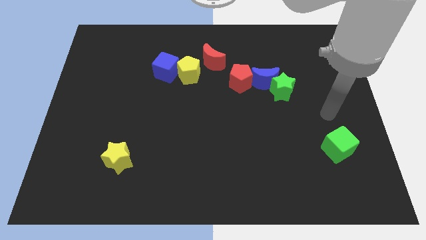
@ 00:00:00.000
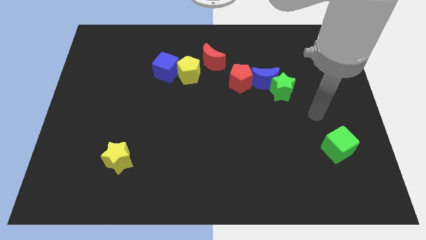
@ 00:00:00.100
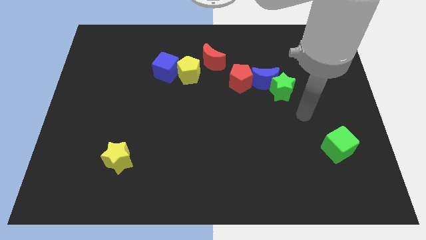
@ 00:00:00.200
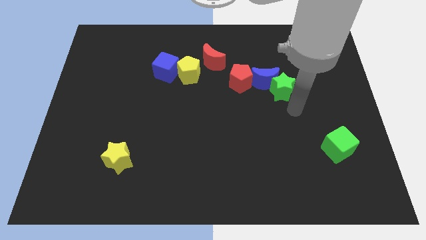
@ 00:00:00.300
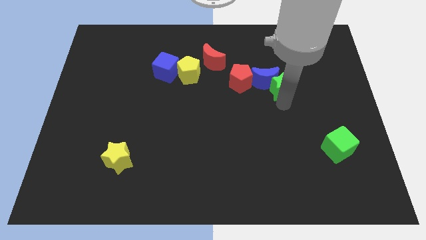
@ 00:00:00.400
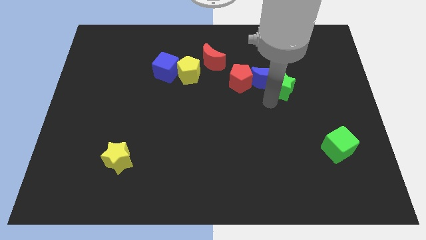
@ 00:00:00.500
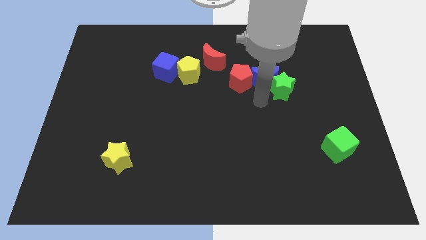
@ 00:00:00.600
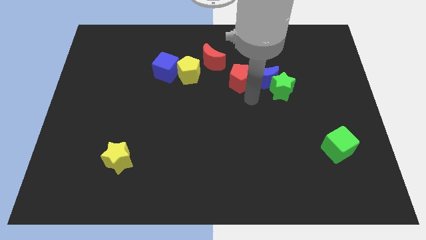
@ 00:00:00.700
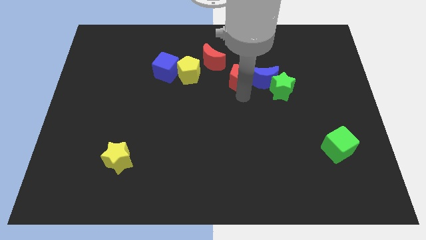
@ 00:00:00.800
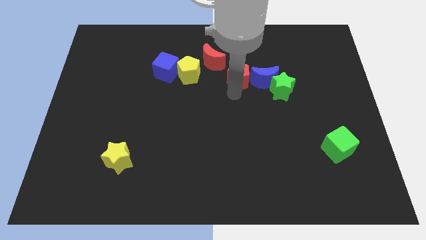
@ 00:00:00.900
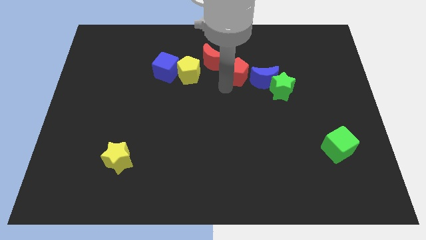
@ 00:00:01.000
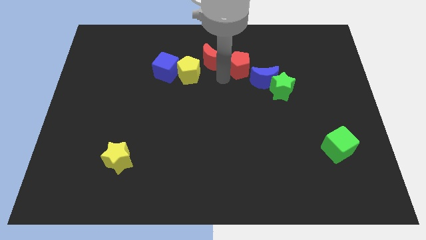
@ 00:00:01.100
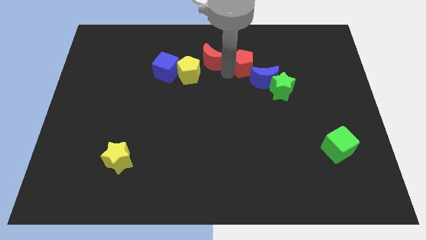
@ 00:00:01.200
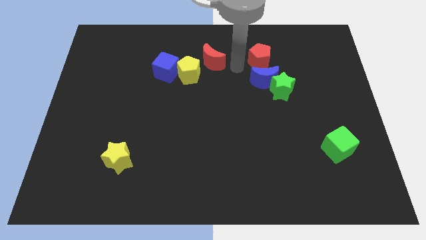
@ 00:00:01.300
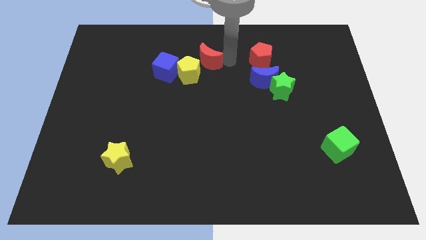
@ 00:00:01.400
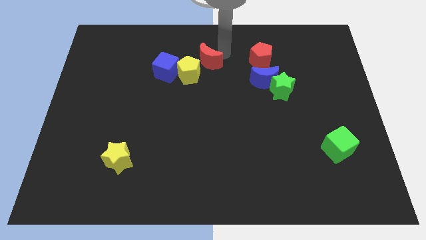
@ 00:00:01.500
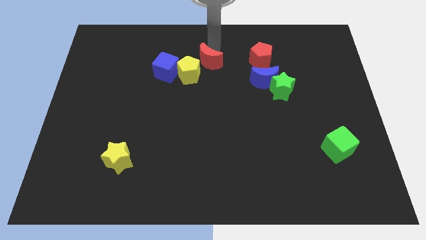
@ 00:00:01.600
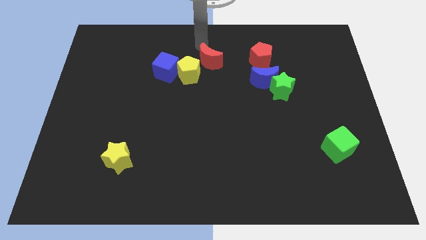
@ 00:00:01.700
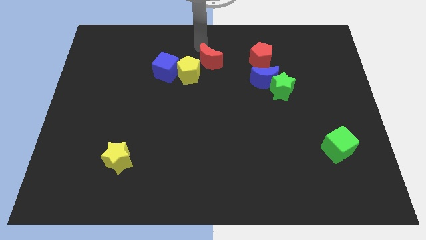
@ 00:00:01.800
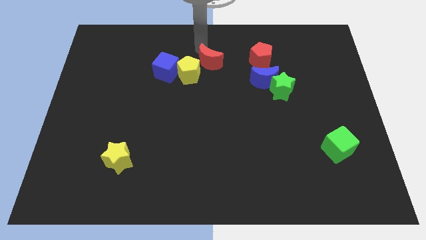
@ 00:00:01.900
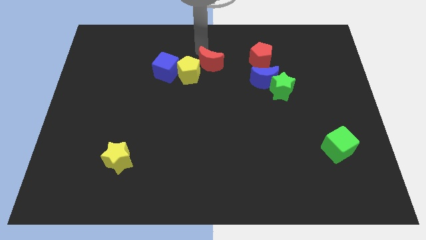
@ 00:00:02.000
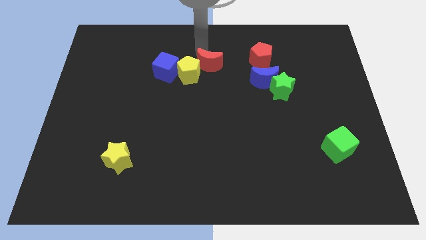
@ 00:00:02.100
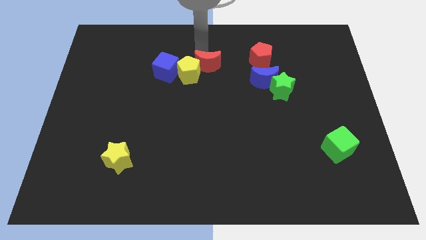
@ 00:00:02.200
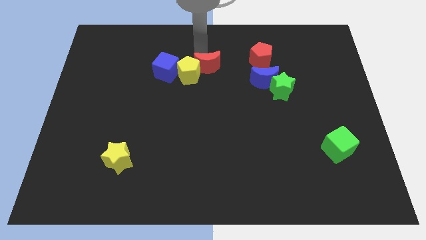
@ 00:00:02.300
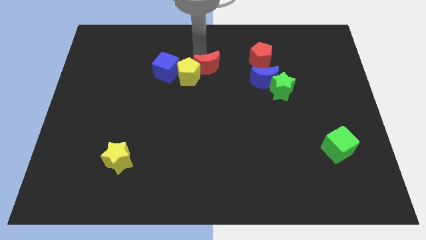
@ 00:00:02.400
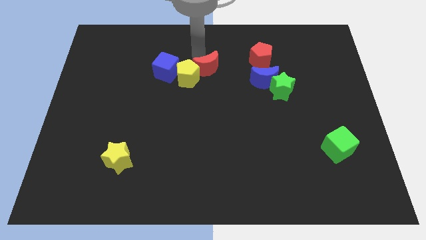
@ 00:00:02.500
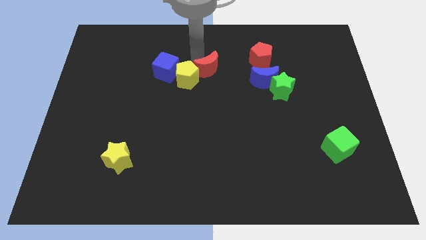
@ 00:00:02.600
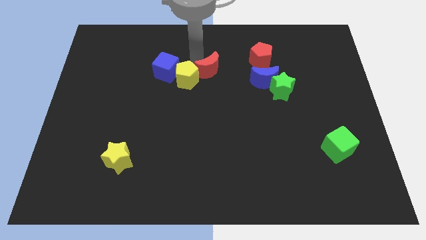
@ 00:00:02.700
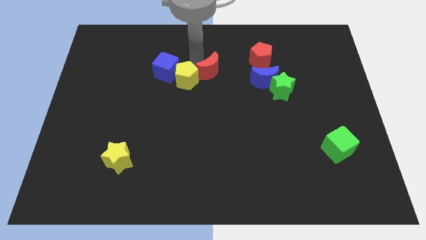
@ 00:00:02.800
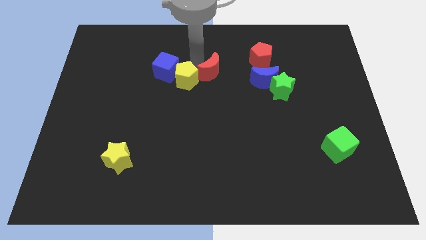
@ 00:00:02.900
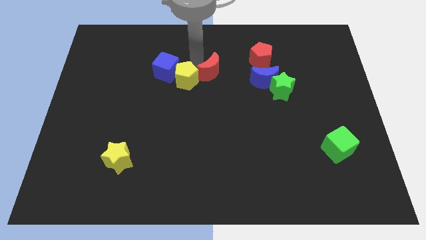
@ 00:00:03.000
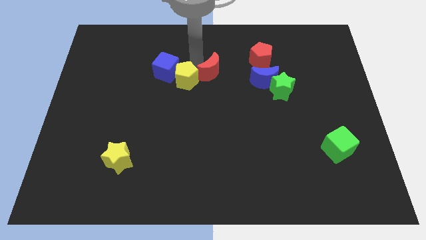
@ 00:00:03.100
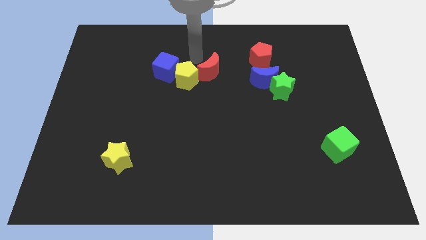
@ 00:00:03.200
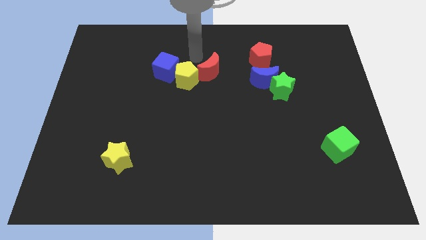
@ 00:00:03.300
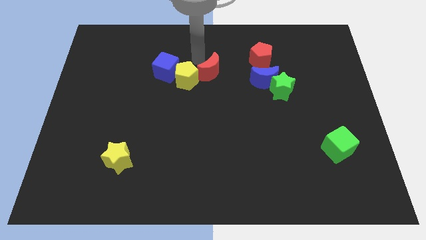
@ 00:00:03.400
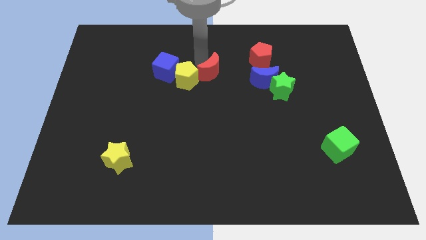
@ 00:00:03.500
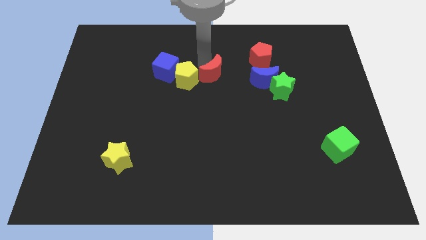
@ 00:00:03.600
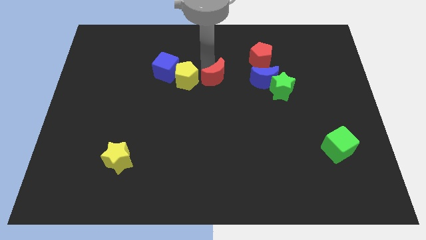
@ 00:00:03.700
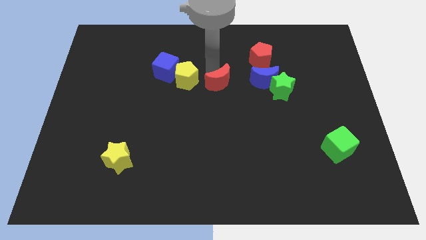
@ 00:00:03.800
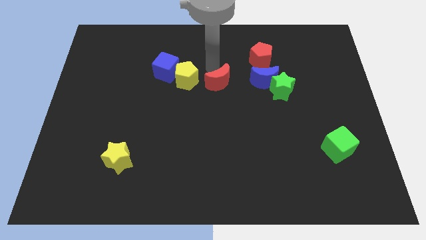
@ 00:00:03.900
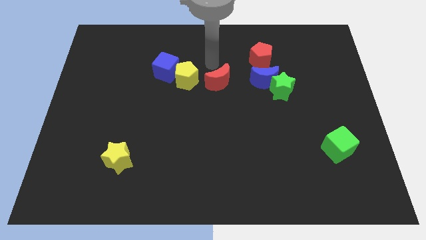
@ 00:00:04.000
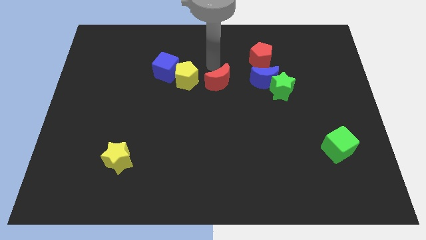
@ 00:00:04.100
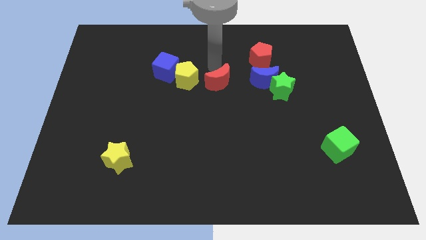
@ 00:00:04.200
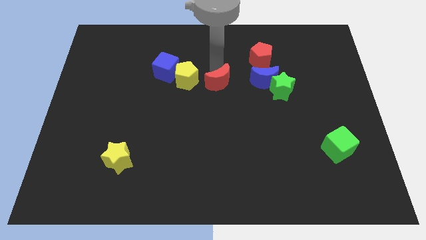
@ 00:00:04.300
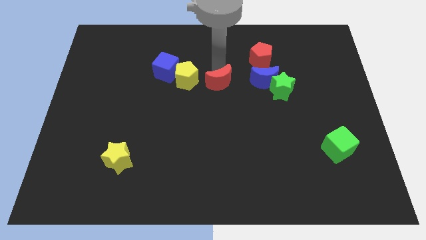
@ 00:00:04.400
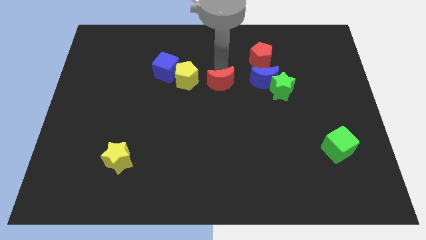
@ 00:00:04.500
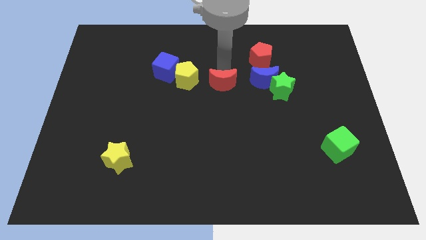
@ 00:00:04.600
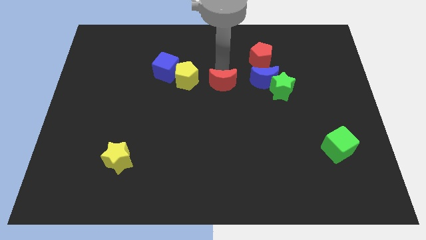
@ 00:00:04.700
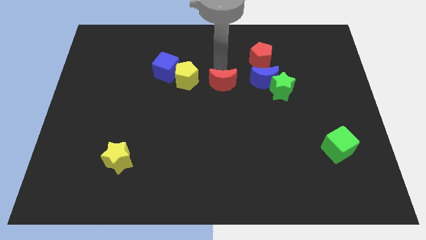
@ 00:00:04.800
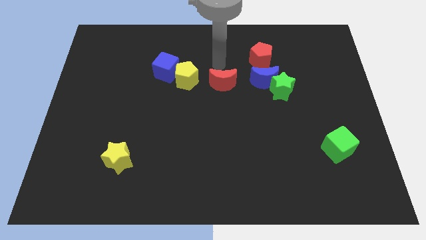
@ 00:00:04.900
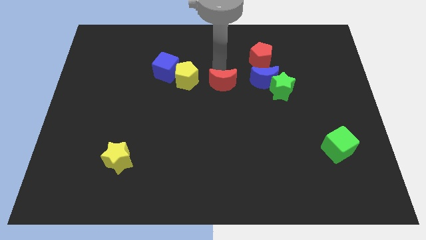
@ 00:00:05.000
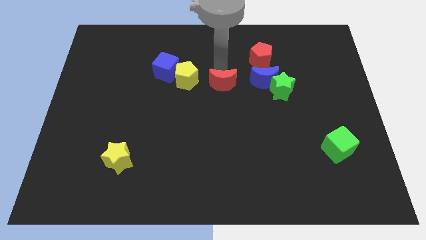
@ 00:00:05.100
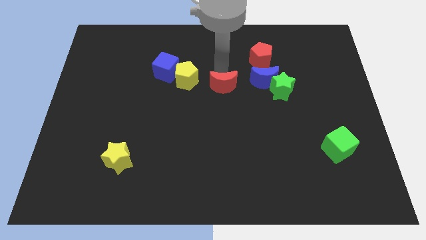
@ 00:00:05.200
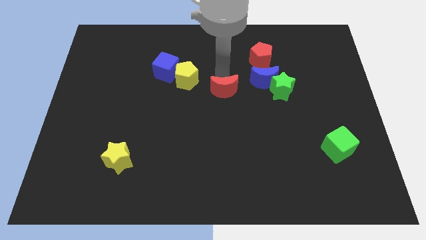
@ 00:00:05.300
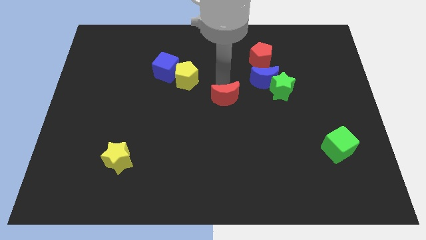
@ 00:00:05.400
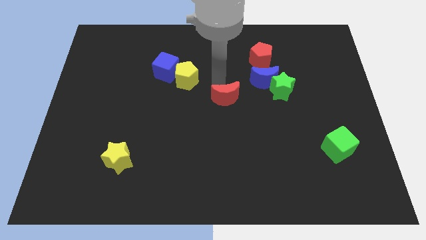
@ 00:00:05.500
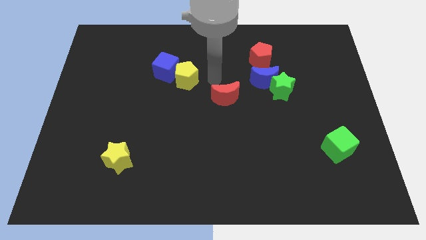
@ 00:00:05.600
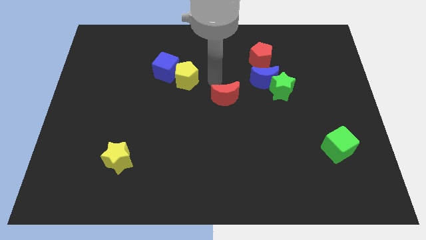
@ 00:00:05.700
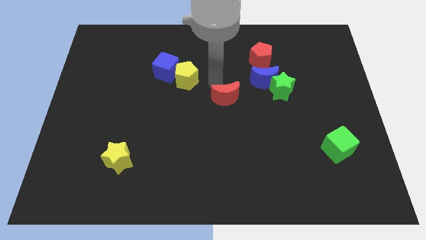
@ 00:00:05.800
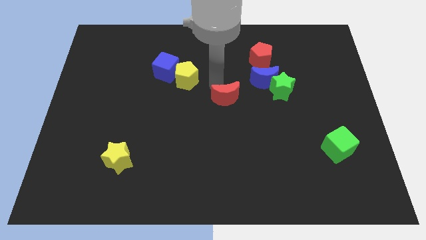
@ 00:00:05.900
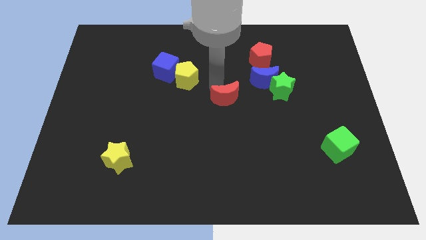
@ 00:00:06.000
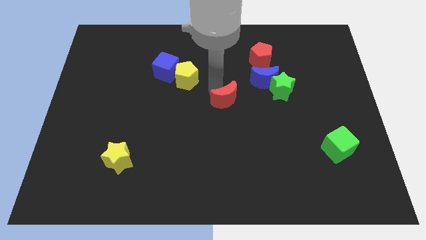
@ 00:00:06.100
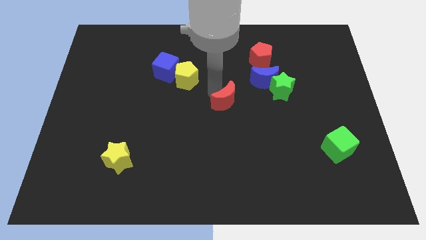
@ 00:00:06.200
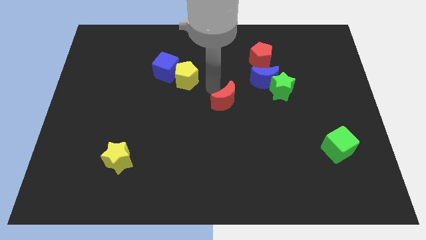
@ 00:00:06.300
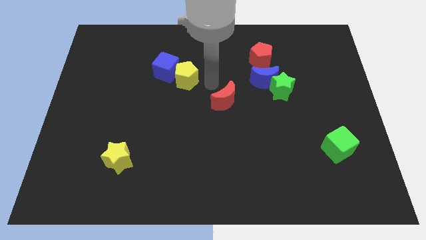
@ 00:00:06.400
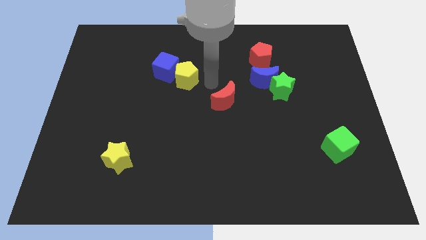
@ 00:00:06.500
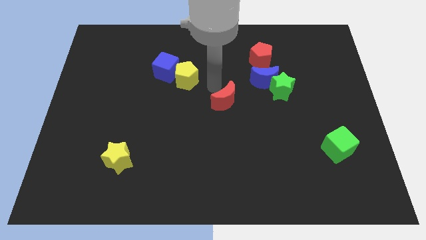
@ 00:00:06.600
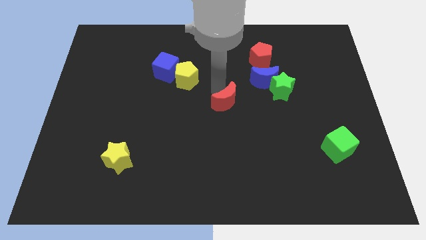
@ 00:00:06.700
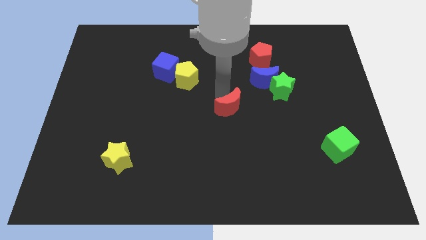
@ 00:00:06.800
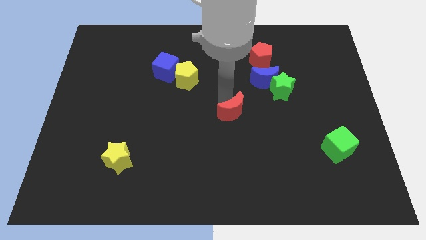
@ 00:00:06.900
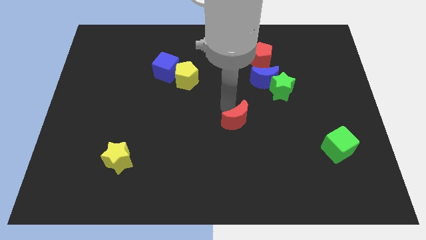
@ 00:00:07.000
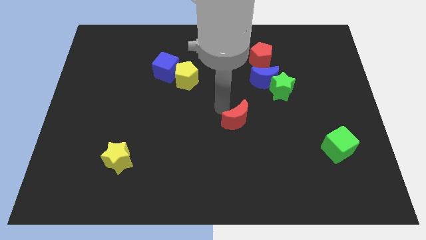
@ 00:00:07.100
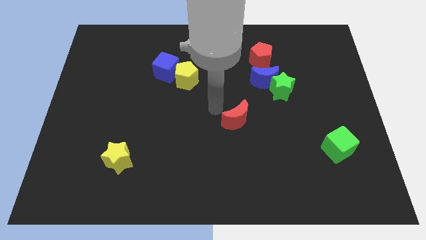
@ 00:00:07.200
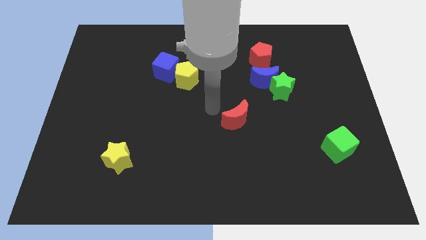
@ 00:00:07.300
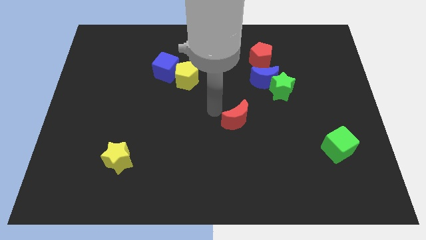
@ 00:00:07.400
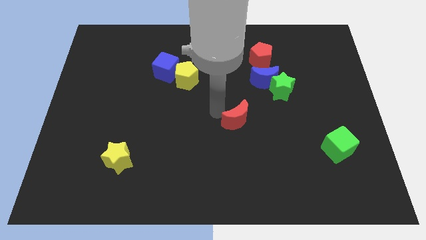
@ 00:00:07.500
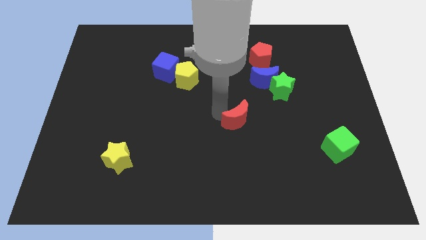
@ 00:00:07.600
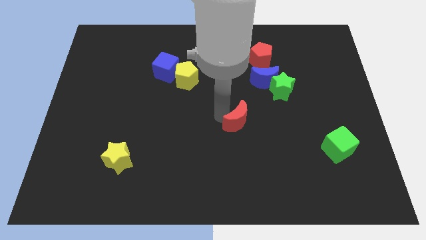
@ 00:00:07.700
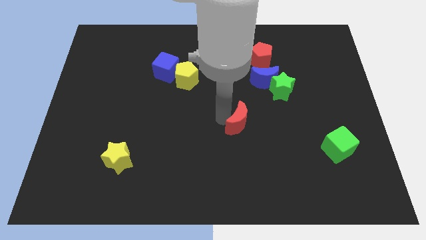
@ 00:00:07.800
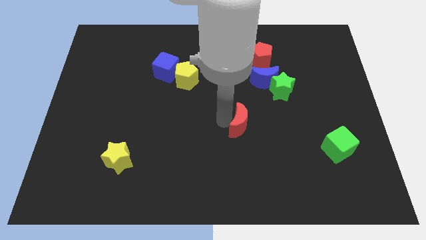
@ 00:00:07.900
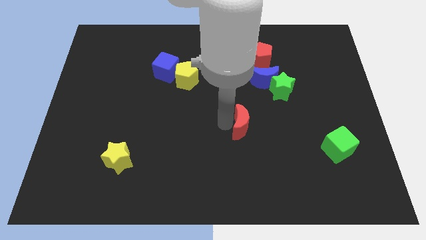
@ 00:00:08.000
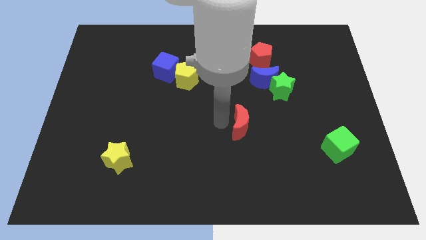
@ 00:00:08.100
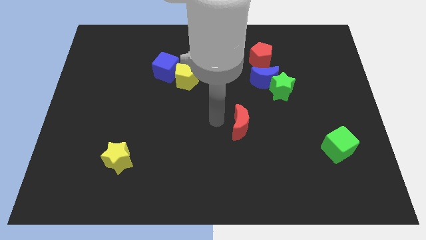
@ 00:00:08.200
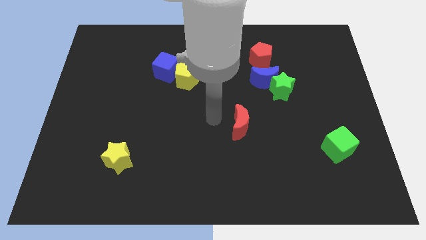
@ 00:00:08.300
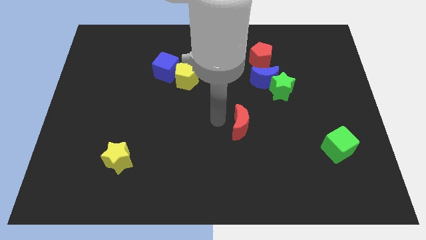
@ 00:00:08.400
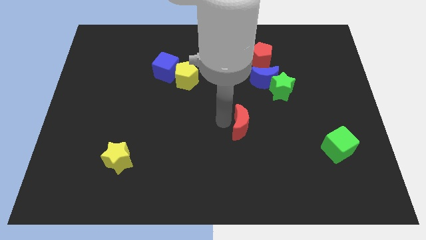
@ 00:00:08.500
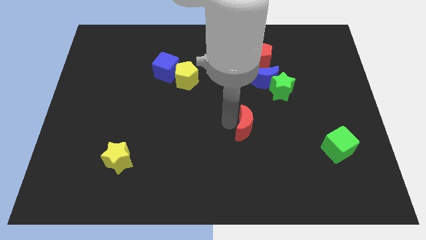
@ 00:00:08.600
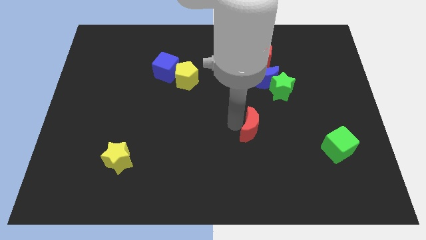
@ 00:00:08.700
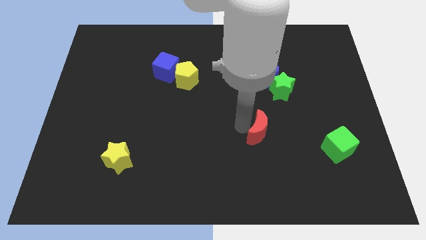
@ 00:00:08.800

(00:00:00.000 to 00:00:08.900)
move the red moon down and to the right
